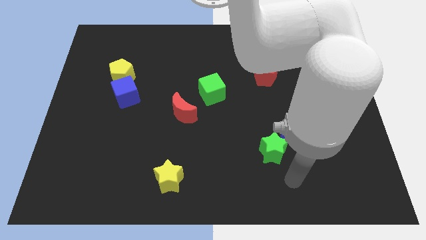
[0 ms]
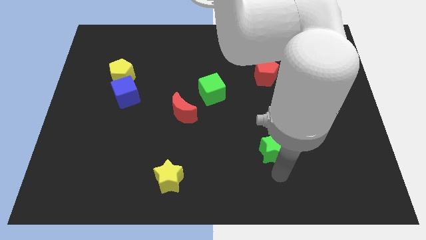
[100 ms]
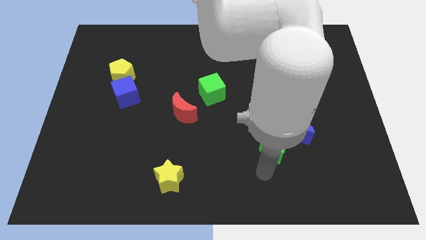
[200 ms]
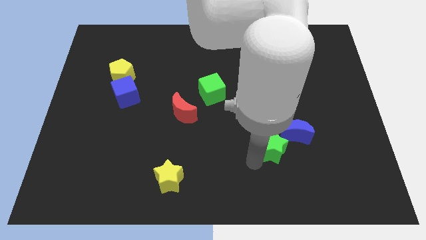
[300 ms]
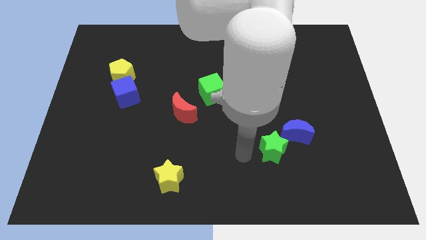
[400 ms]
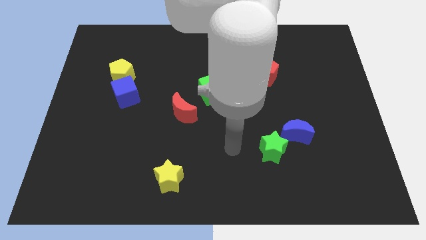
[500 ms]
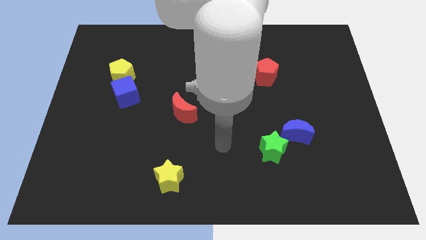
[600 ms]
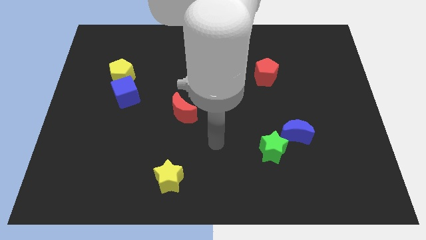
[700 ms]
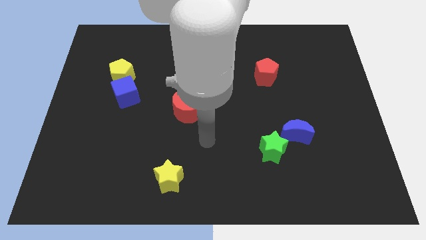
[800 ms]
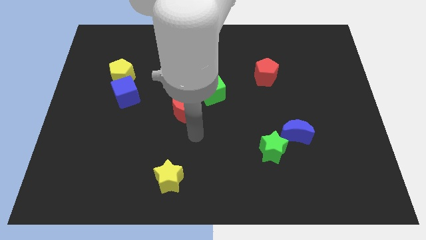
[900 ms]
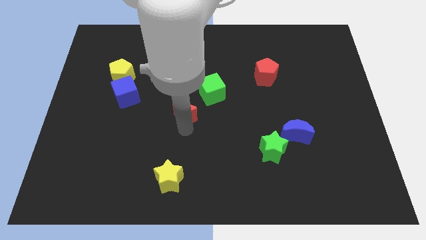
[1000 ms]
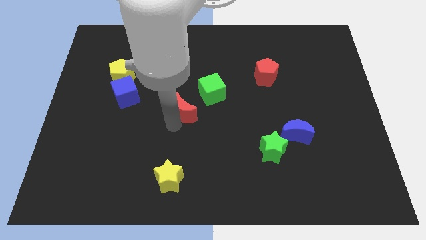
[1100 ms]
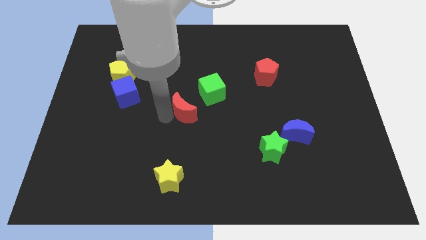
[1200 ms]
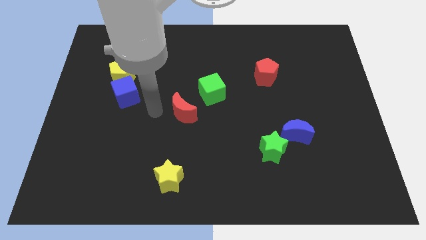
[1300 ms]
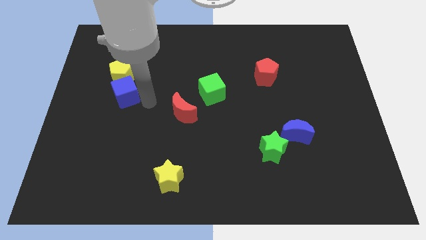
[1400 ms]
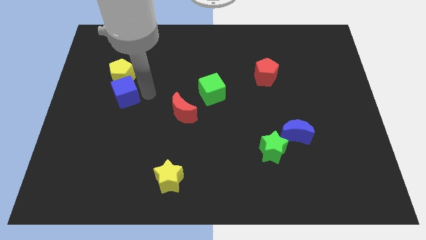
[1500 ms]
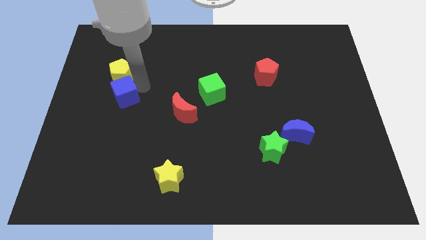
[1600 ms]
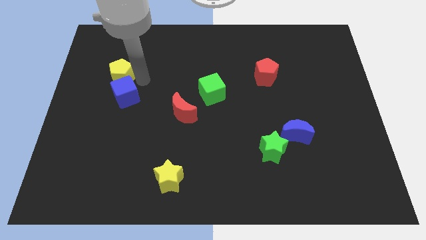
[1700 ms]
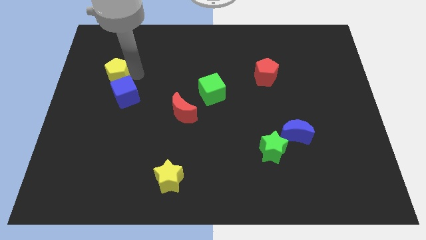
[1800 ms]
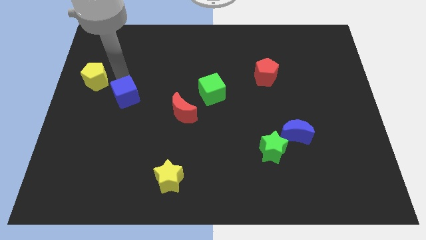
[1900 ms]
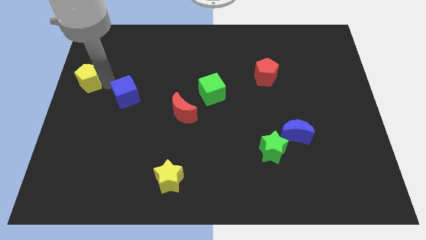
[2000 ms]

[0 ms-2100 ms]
move the blue cube away from the yellow pentagon

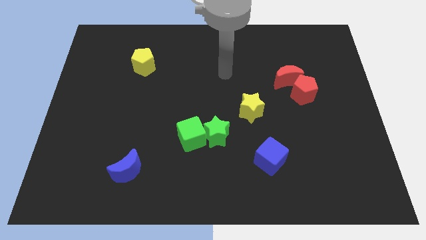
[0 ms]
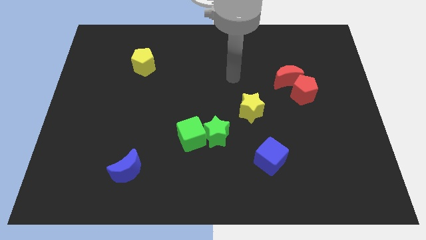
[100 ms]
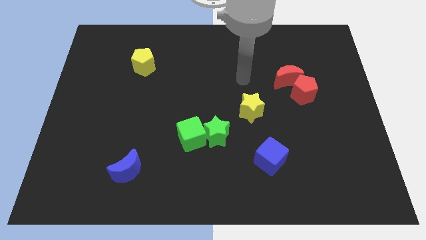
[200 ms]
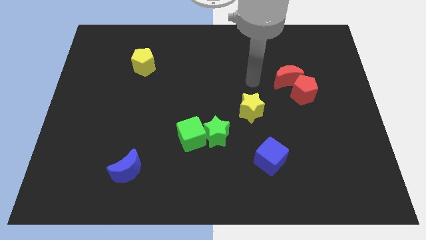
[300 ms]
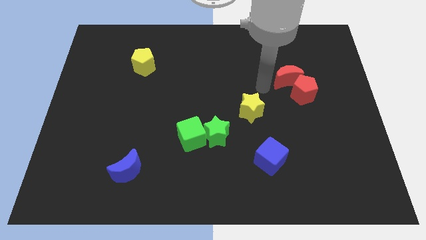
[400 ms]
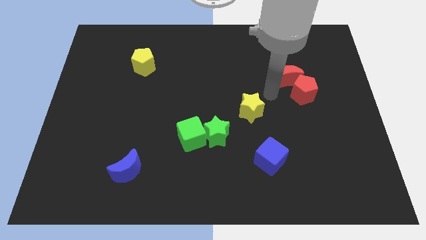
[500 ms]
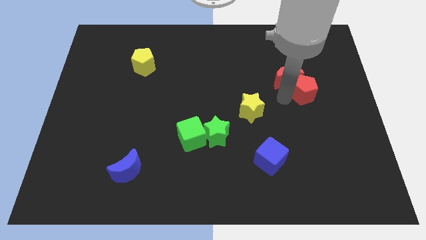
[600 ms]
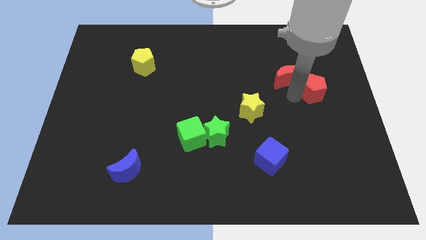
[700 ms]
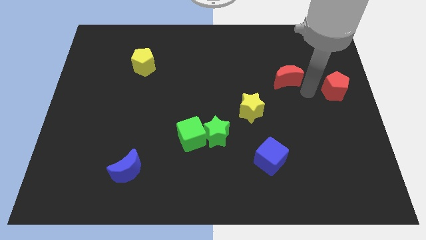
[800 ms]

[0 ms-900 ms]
move the red moon away from the red pentagon

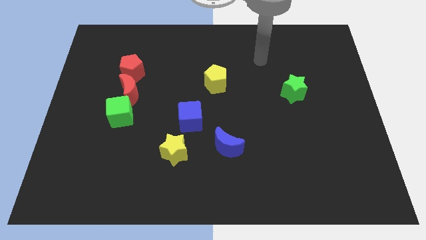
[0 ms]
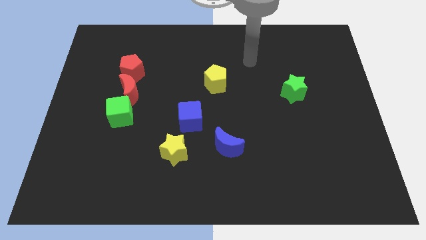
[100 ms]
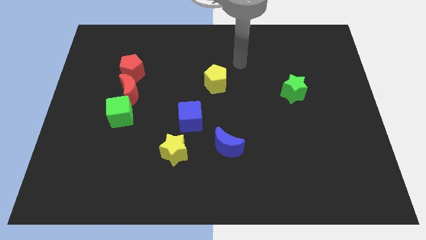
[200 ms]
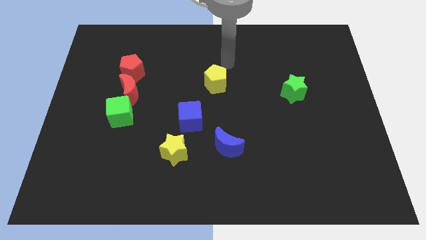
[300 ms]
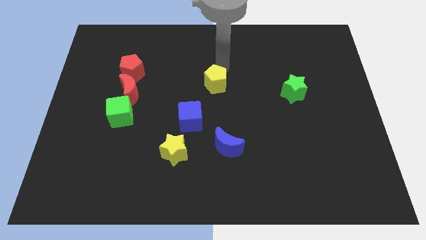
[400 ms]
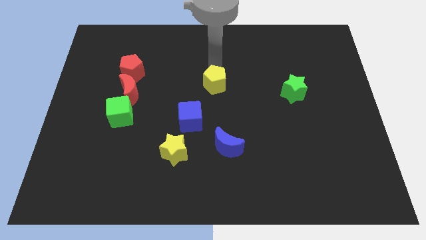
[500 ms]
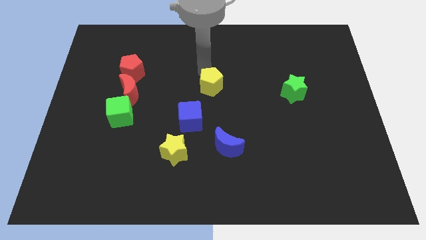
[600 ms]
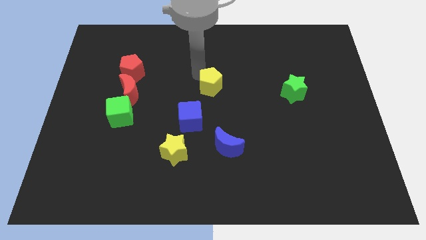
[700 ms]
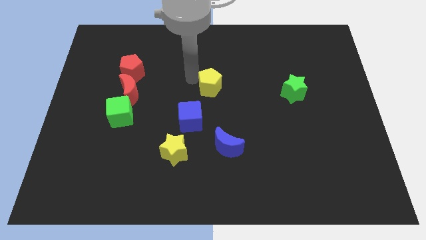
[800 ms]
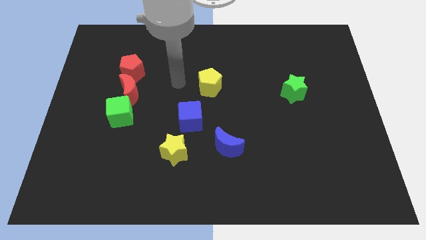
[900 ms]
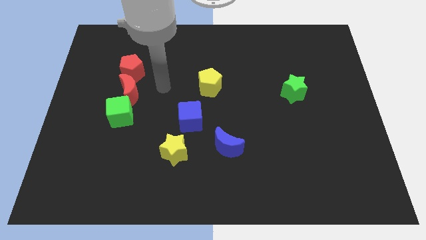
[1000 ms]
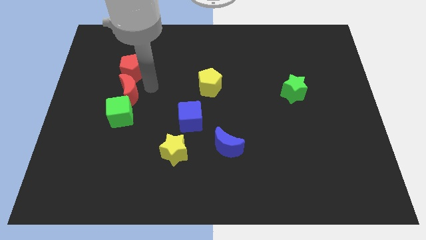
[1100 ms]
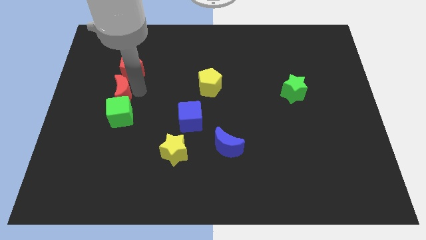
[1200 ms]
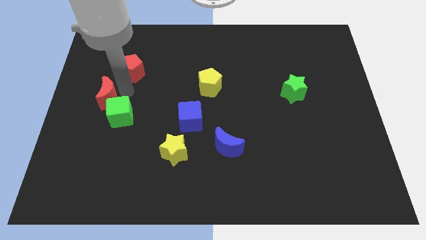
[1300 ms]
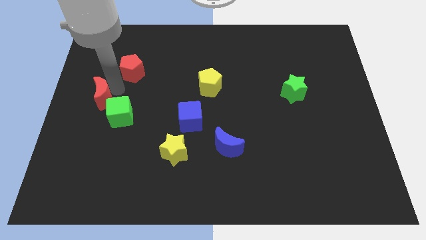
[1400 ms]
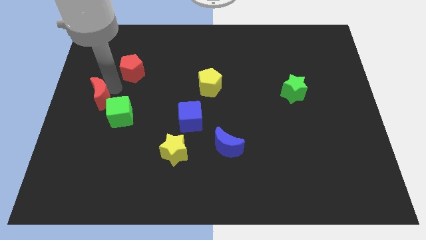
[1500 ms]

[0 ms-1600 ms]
separate the red pentagon from the red moon

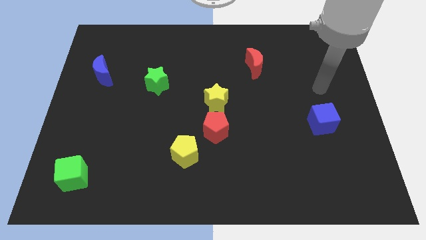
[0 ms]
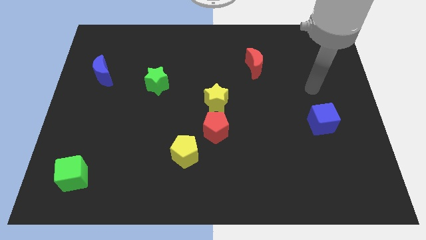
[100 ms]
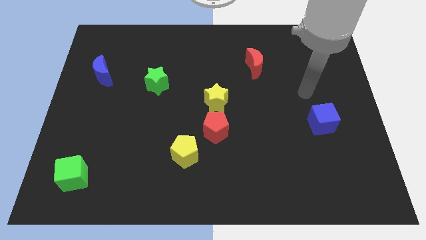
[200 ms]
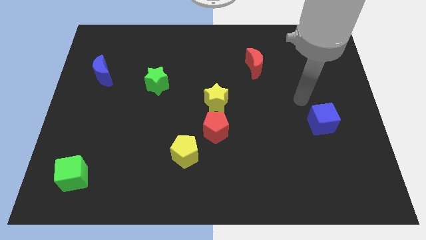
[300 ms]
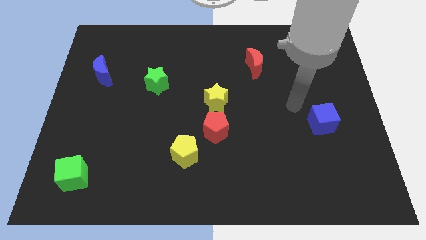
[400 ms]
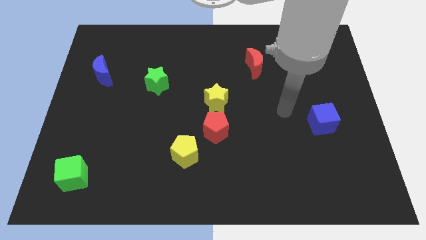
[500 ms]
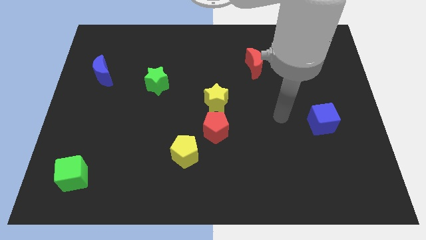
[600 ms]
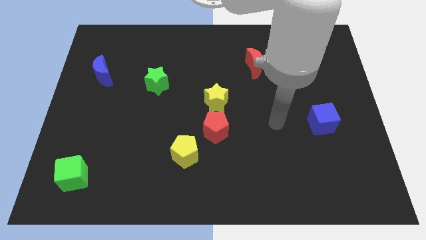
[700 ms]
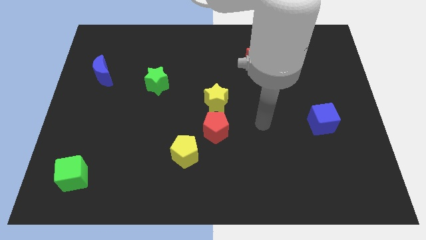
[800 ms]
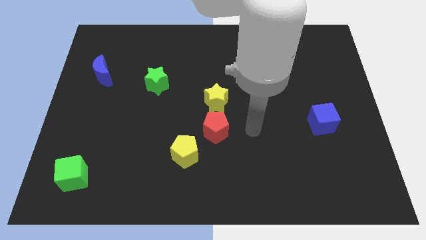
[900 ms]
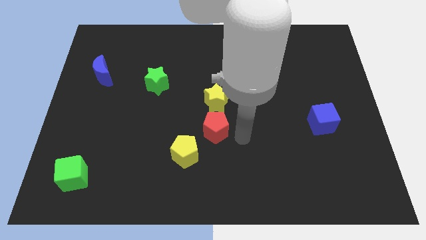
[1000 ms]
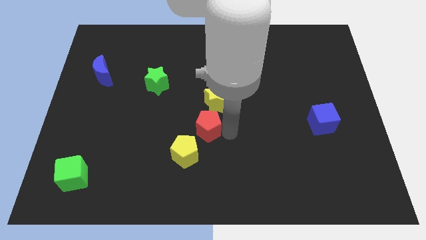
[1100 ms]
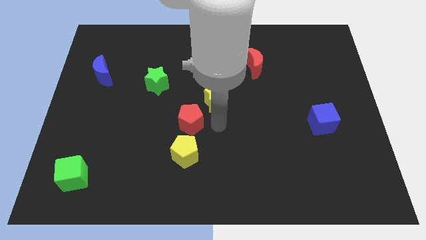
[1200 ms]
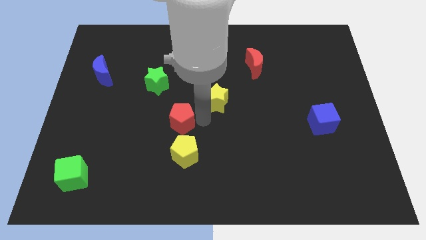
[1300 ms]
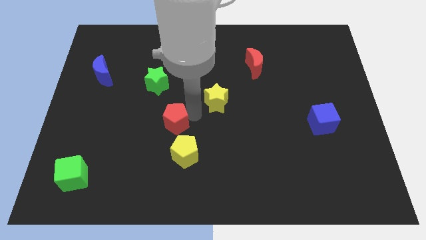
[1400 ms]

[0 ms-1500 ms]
separate the yellow star from the red pentagon

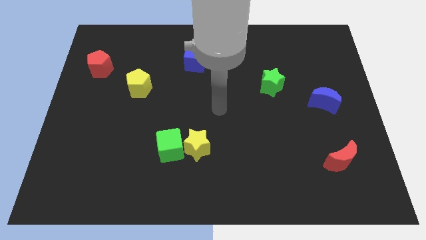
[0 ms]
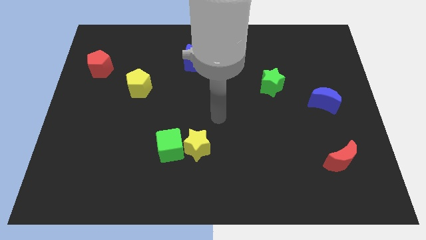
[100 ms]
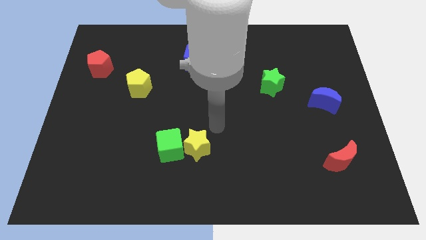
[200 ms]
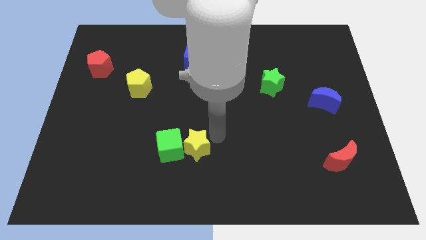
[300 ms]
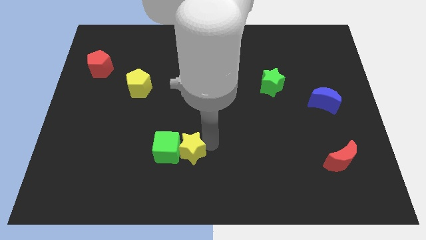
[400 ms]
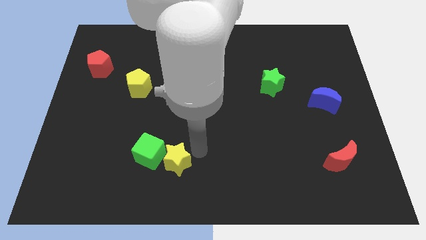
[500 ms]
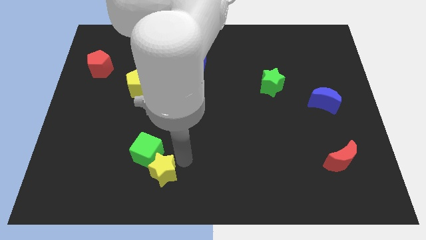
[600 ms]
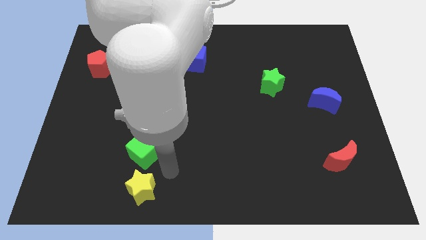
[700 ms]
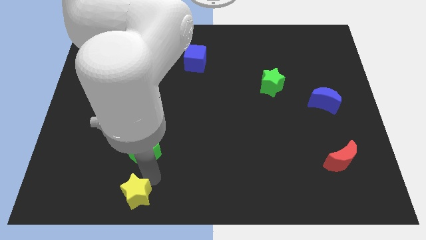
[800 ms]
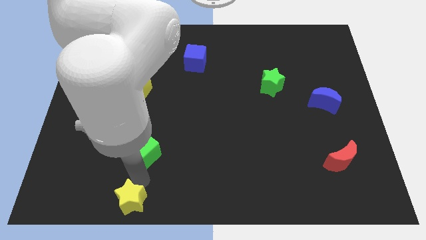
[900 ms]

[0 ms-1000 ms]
move the green cube away from the yellow star

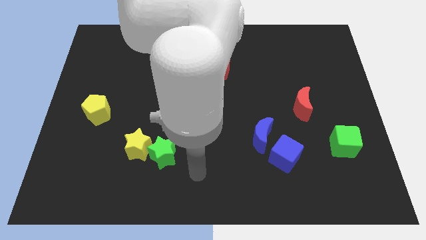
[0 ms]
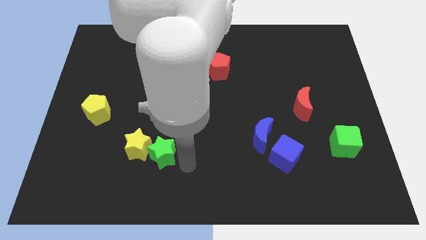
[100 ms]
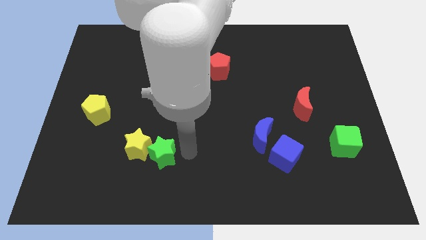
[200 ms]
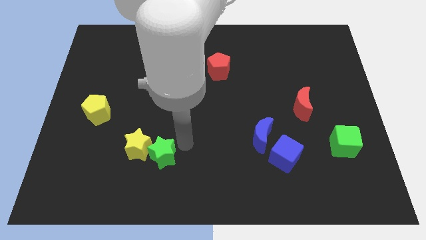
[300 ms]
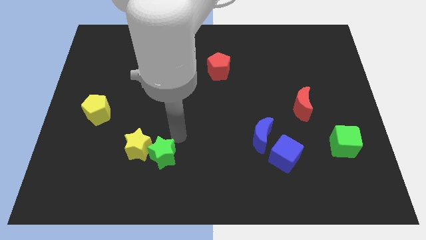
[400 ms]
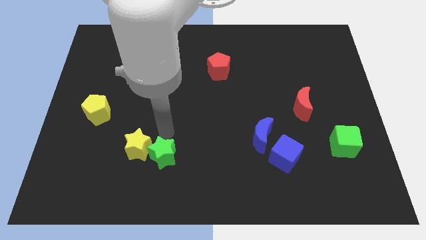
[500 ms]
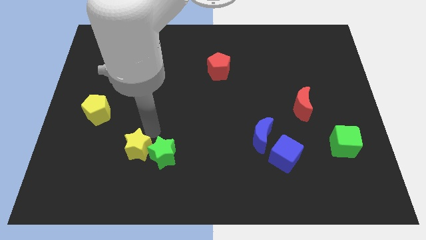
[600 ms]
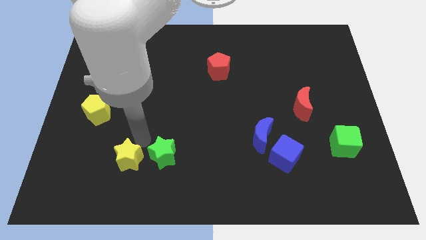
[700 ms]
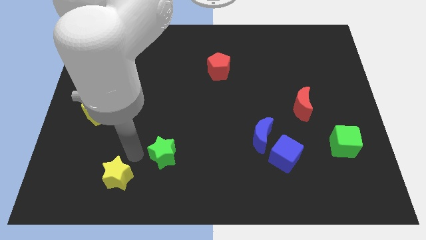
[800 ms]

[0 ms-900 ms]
separate the green star from the yellow star

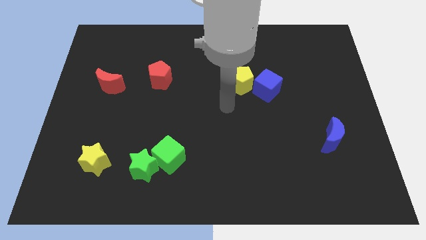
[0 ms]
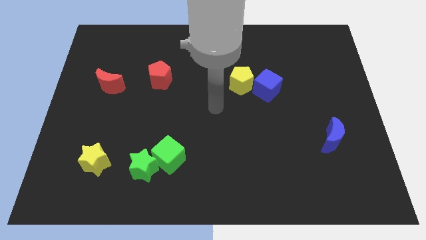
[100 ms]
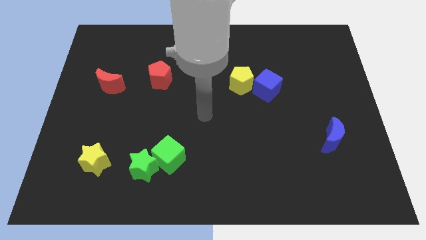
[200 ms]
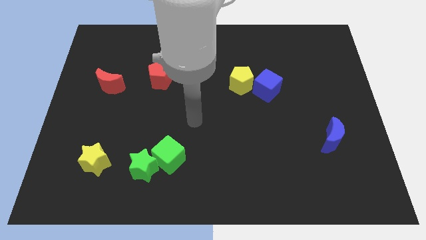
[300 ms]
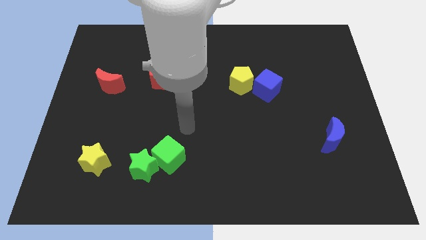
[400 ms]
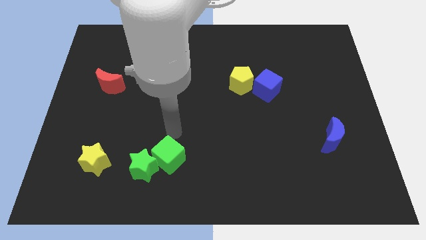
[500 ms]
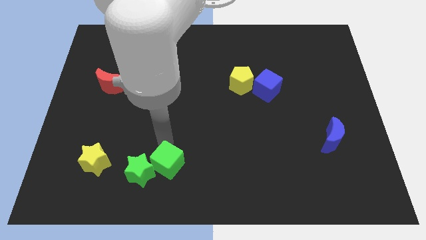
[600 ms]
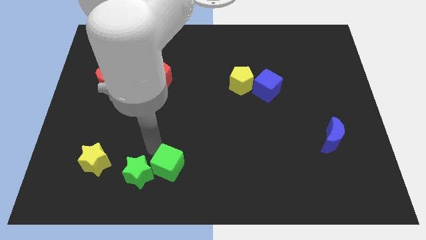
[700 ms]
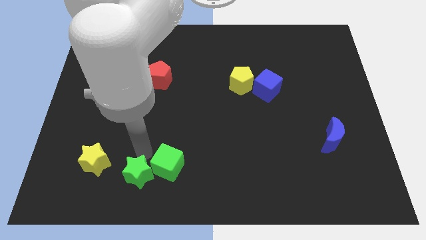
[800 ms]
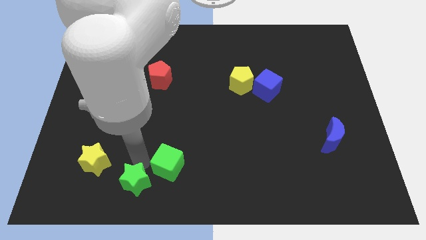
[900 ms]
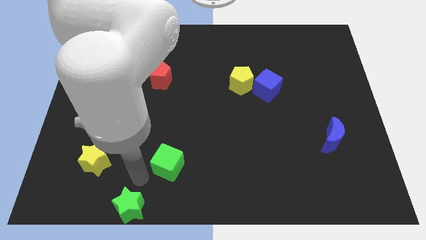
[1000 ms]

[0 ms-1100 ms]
separate the green cube from the green star

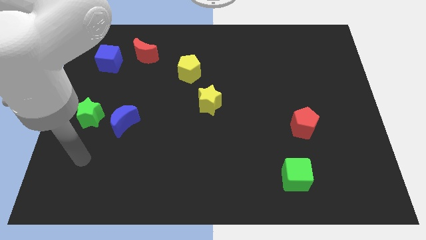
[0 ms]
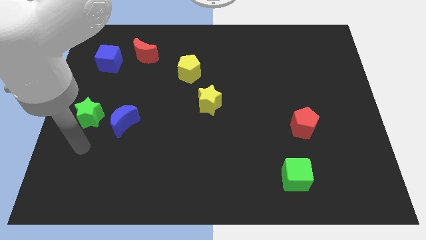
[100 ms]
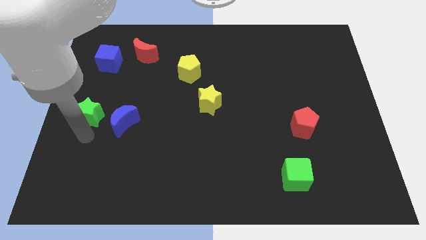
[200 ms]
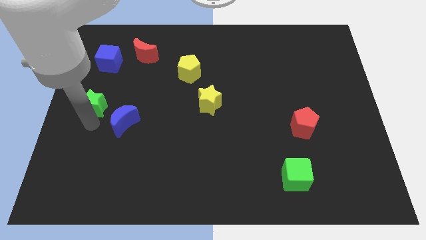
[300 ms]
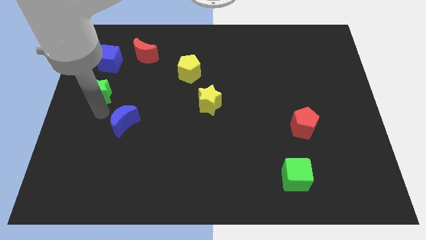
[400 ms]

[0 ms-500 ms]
separate the blue moon from the green star
